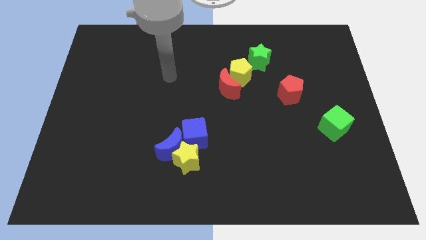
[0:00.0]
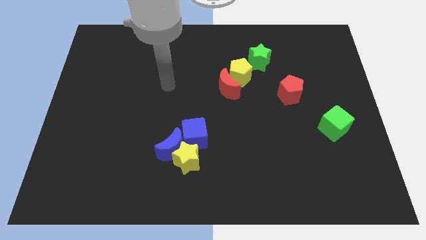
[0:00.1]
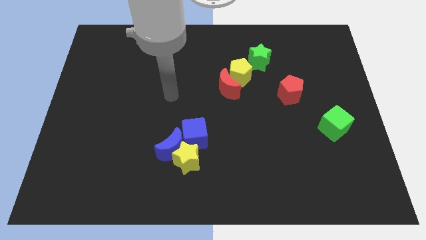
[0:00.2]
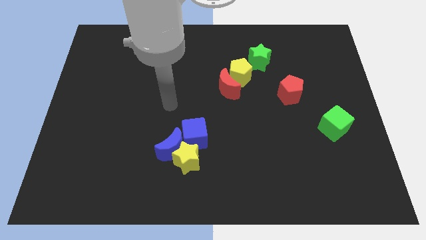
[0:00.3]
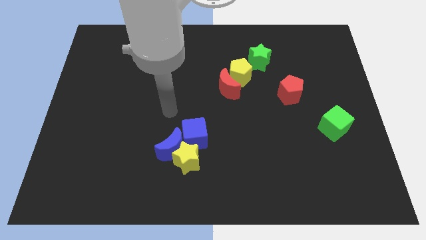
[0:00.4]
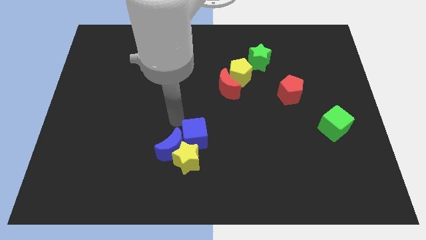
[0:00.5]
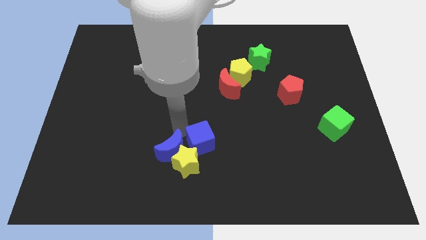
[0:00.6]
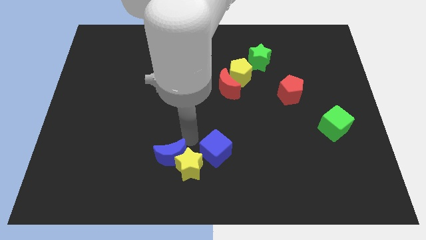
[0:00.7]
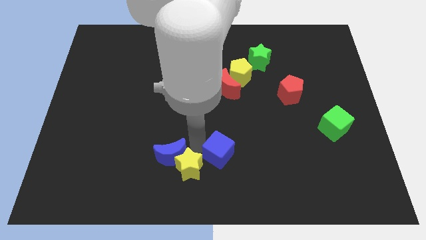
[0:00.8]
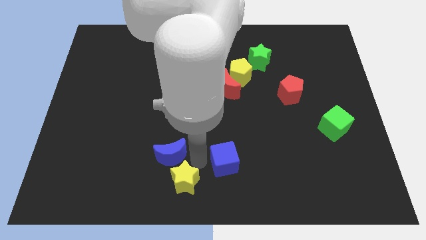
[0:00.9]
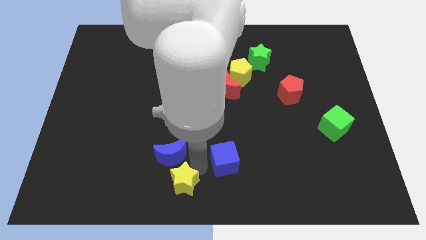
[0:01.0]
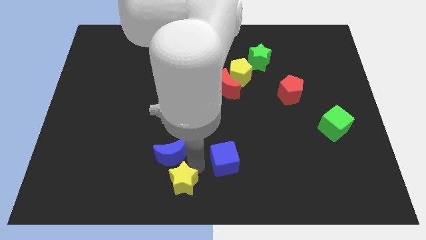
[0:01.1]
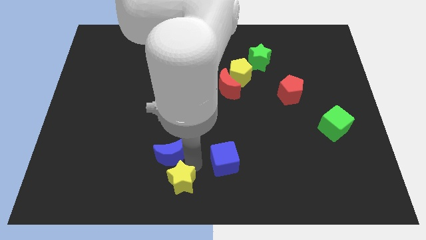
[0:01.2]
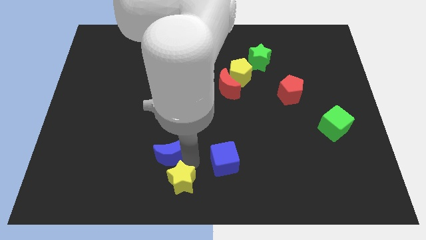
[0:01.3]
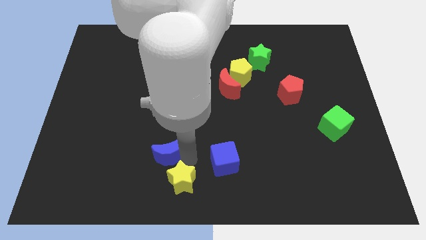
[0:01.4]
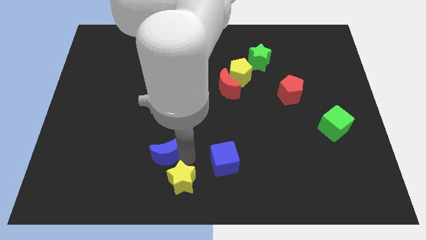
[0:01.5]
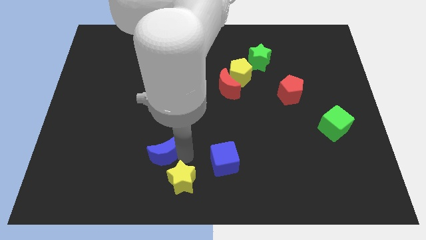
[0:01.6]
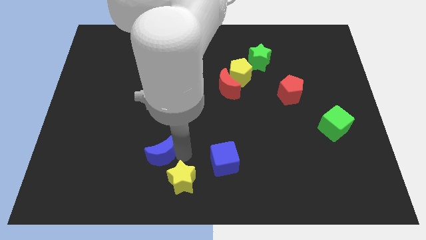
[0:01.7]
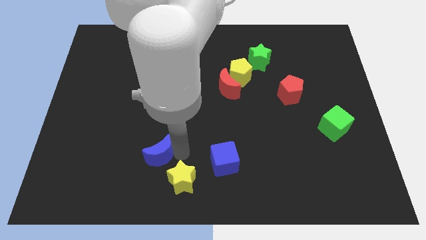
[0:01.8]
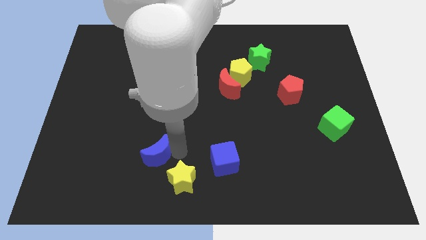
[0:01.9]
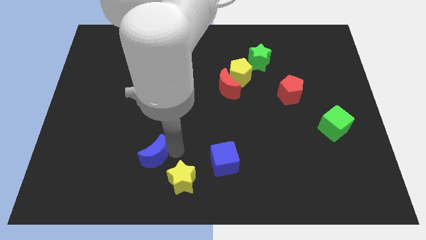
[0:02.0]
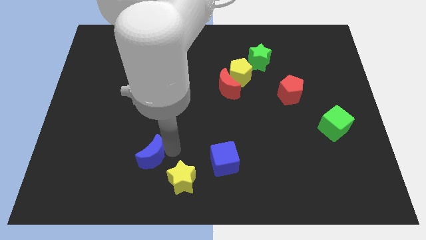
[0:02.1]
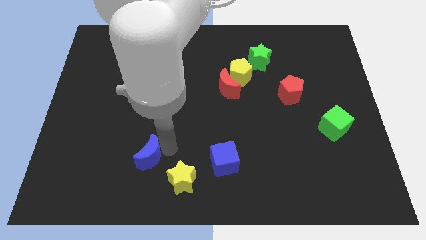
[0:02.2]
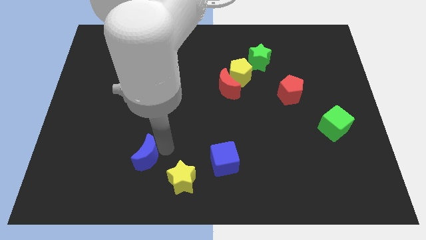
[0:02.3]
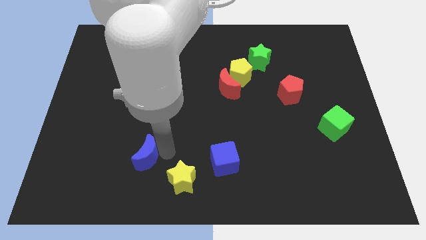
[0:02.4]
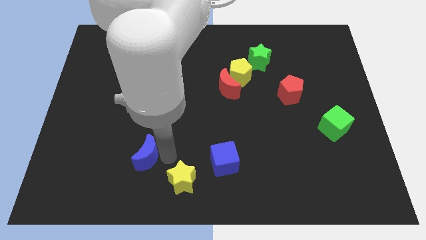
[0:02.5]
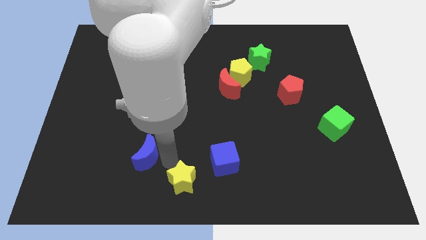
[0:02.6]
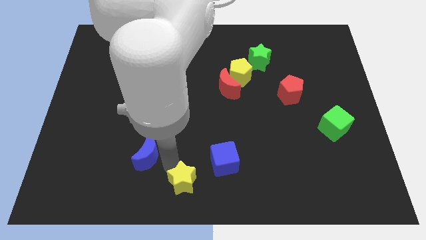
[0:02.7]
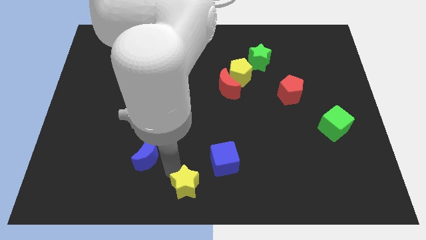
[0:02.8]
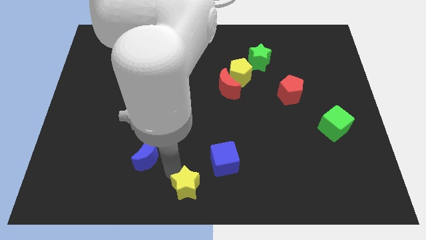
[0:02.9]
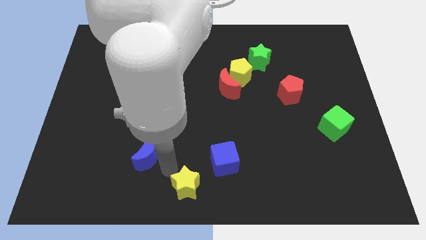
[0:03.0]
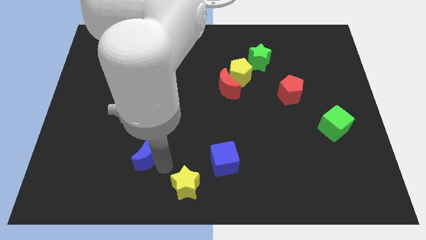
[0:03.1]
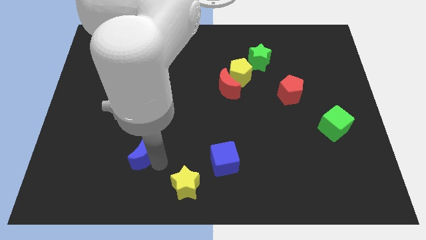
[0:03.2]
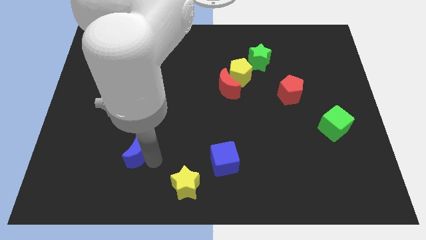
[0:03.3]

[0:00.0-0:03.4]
slightly slide the blue moon to the left

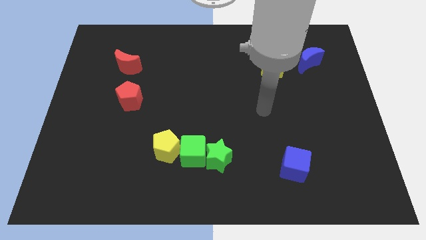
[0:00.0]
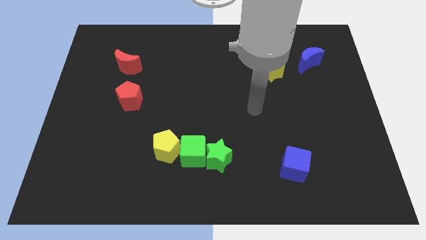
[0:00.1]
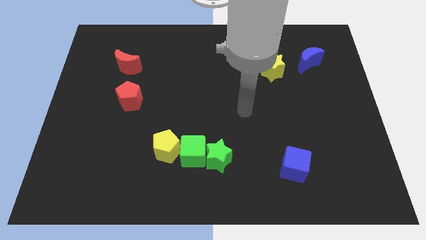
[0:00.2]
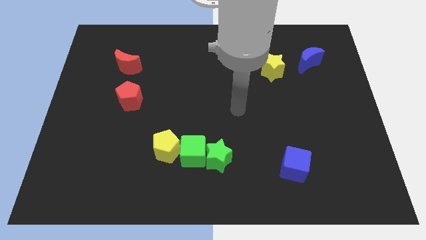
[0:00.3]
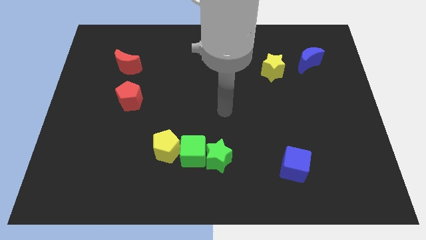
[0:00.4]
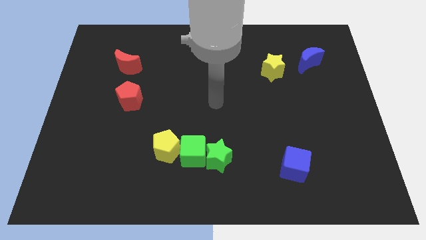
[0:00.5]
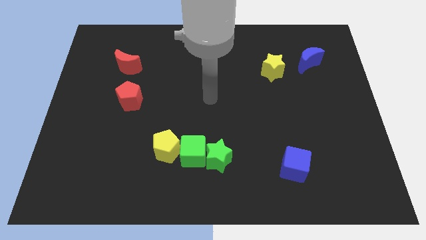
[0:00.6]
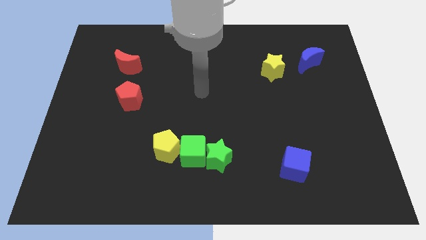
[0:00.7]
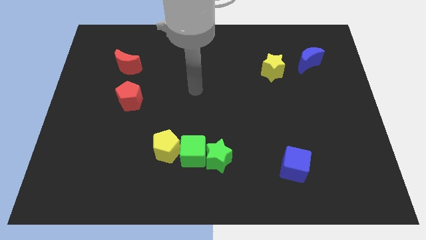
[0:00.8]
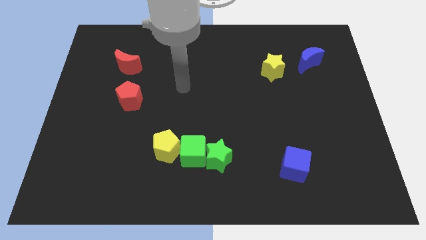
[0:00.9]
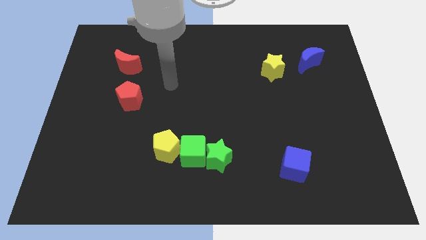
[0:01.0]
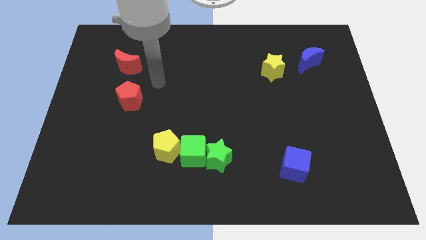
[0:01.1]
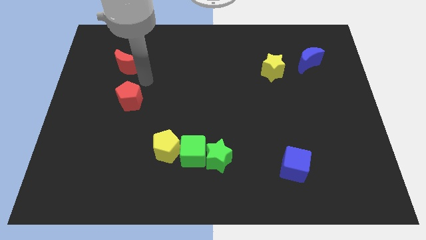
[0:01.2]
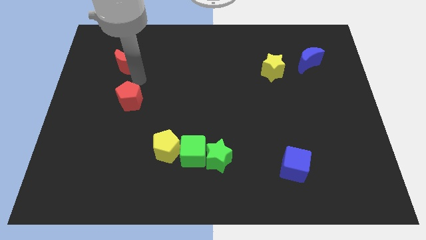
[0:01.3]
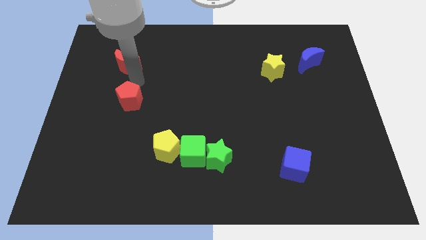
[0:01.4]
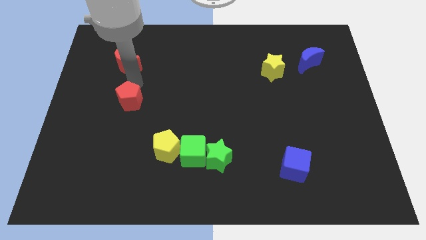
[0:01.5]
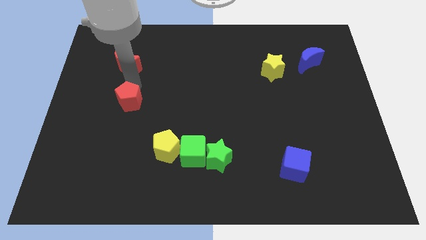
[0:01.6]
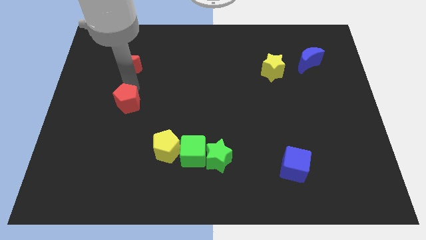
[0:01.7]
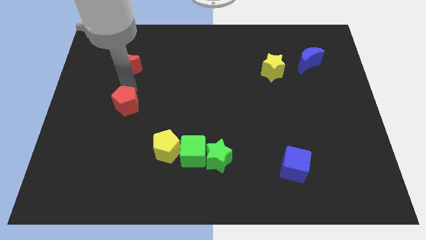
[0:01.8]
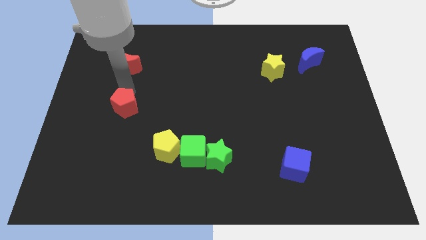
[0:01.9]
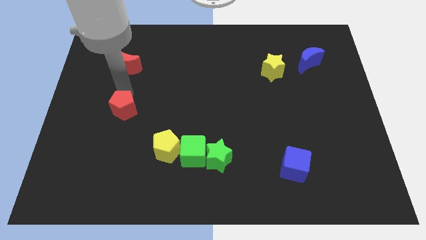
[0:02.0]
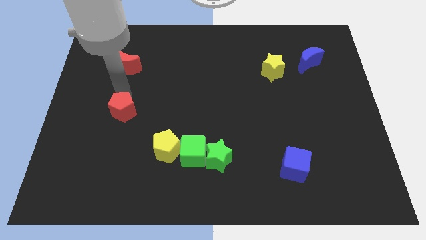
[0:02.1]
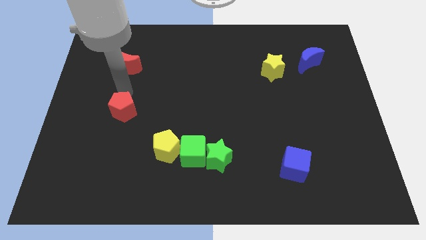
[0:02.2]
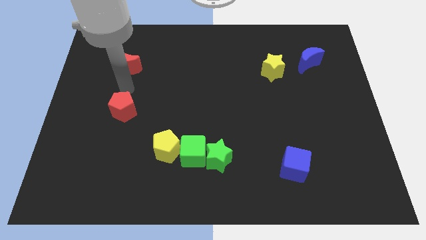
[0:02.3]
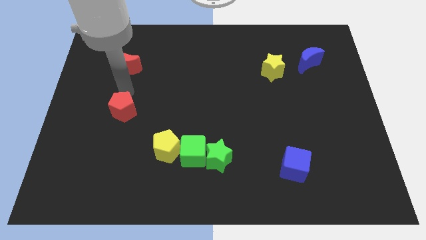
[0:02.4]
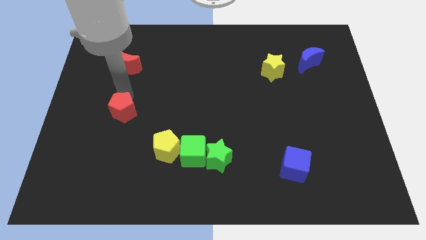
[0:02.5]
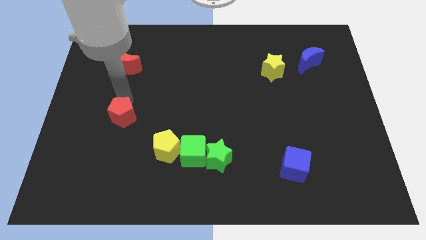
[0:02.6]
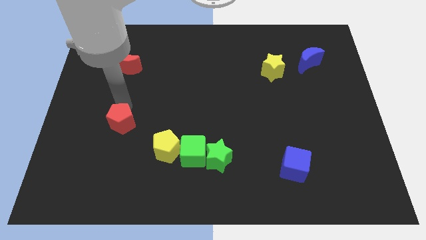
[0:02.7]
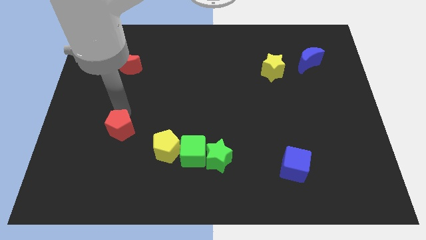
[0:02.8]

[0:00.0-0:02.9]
move the red pentagon a little downwards

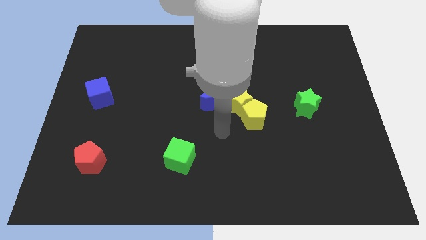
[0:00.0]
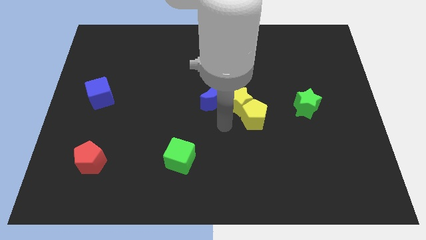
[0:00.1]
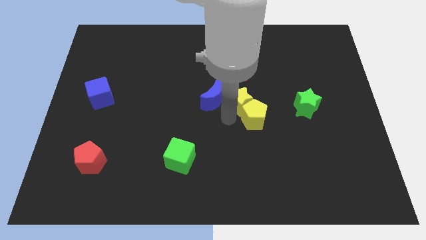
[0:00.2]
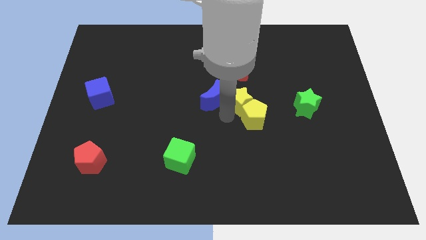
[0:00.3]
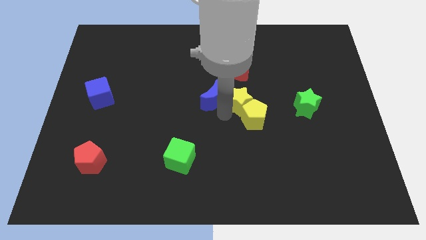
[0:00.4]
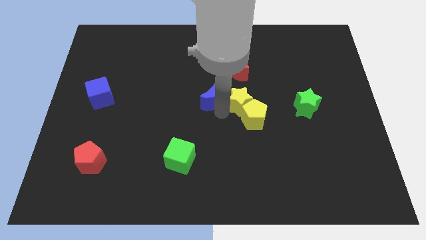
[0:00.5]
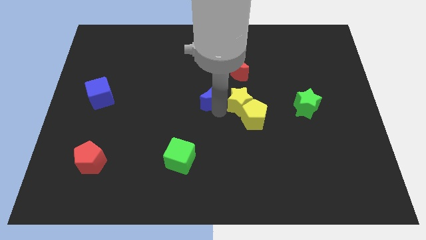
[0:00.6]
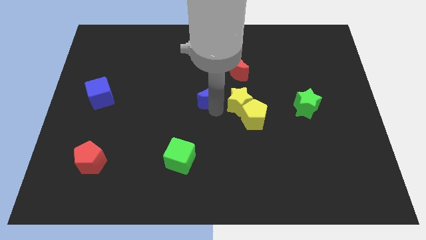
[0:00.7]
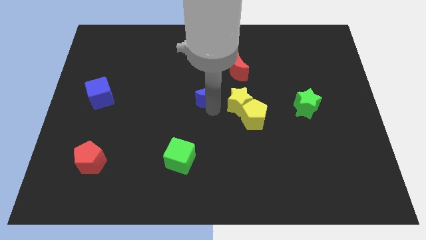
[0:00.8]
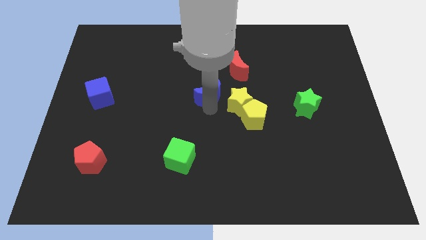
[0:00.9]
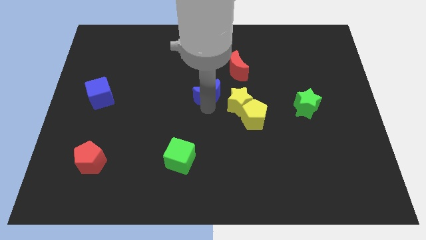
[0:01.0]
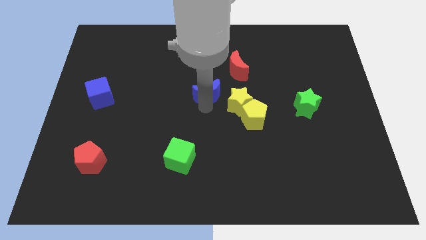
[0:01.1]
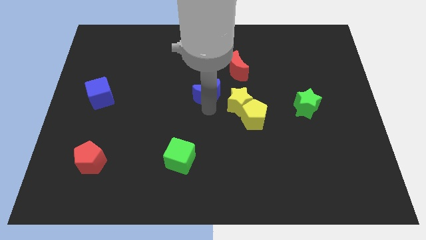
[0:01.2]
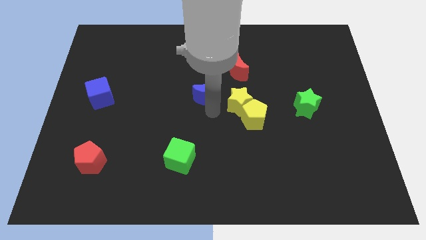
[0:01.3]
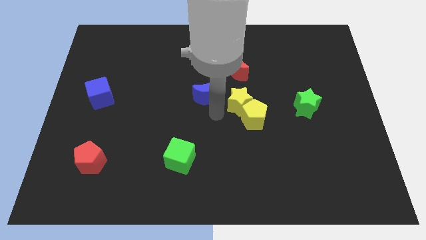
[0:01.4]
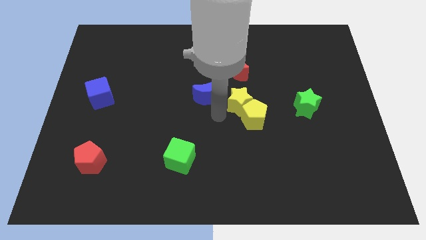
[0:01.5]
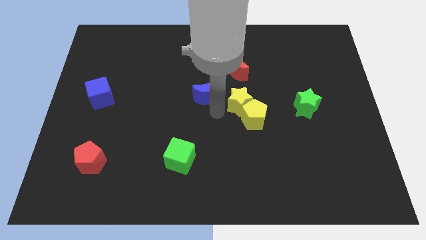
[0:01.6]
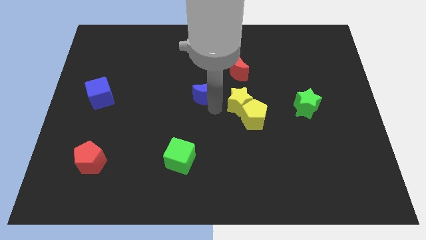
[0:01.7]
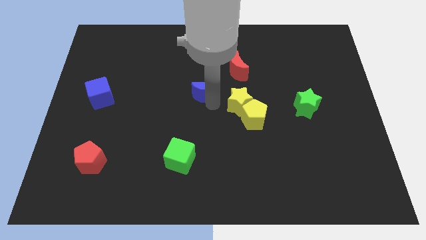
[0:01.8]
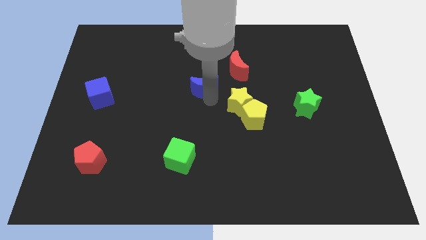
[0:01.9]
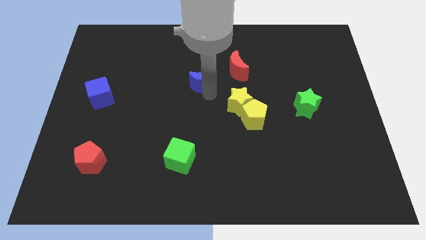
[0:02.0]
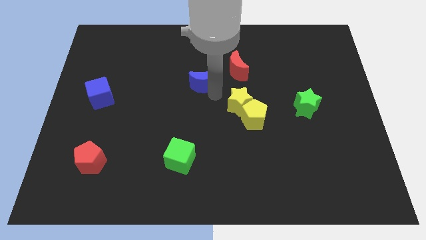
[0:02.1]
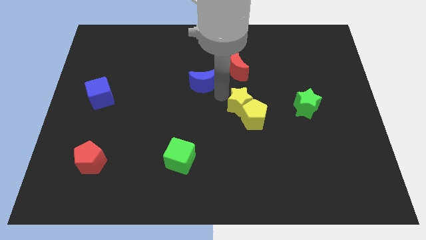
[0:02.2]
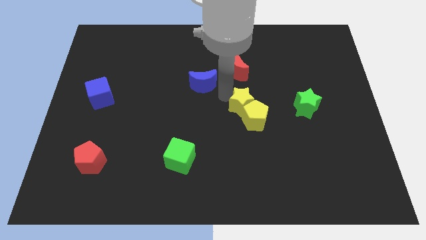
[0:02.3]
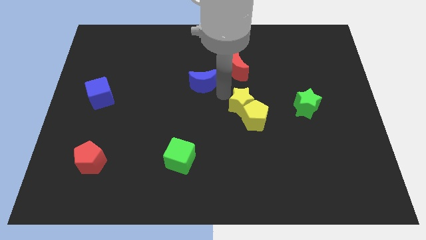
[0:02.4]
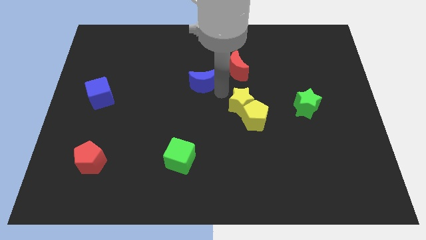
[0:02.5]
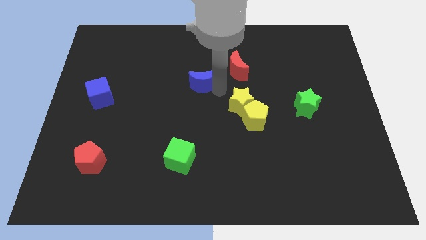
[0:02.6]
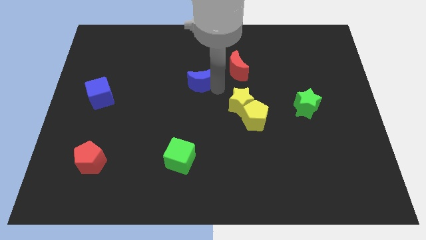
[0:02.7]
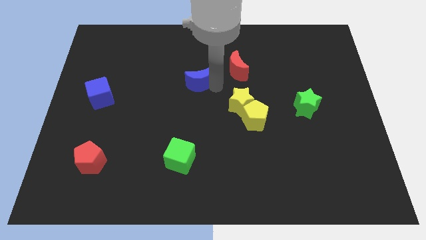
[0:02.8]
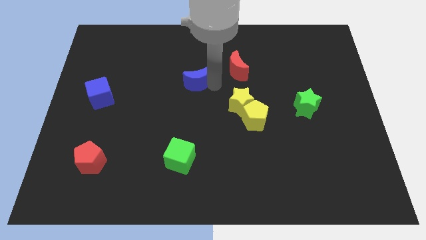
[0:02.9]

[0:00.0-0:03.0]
move the blue moon upwards and to the left a little bit
